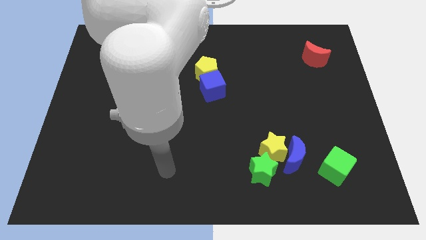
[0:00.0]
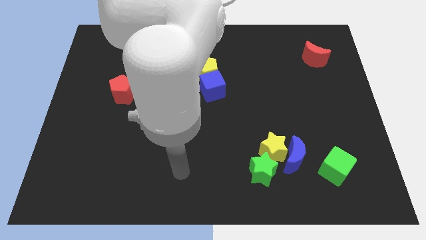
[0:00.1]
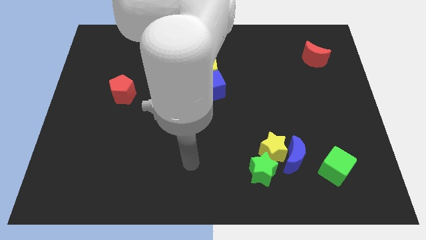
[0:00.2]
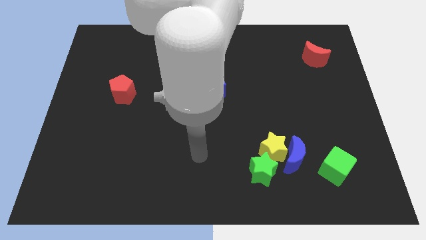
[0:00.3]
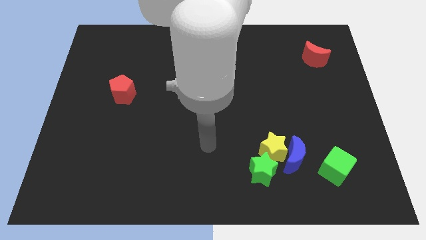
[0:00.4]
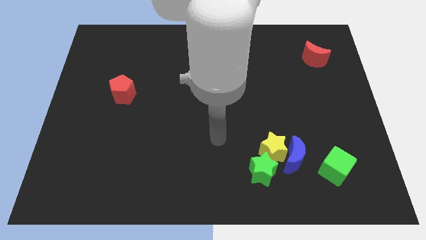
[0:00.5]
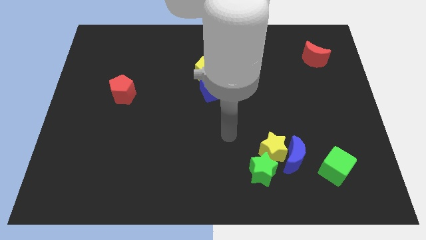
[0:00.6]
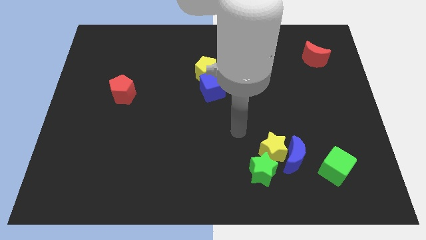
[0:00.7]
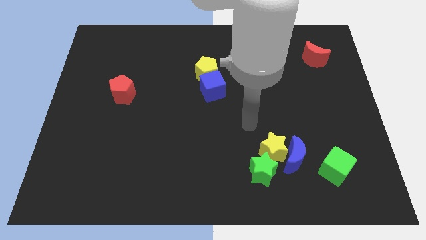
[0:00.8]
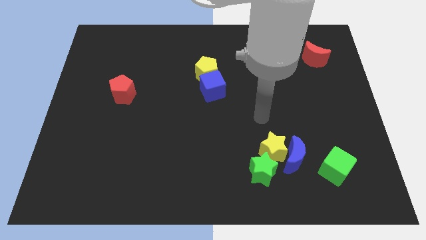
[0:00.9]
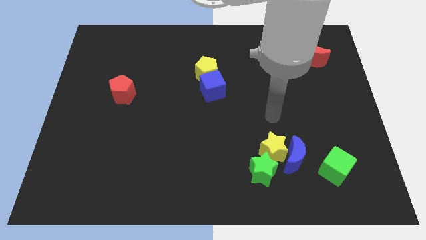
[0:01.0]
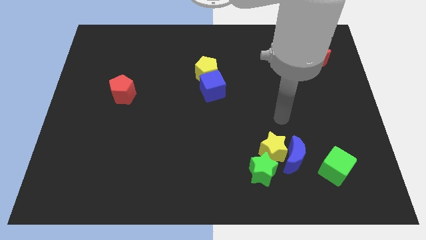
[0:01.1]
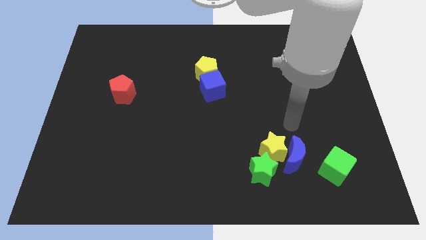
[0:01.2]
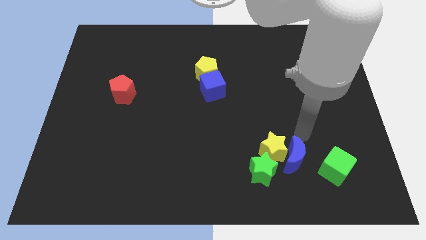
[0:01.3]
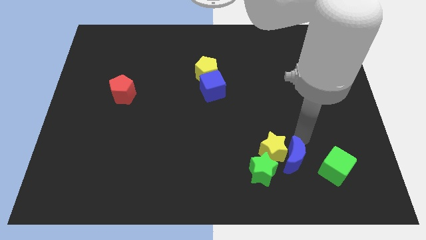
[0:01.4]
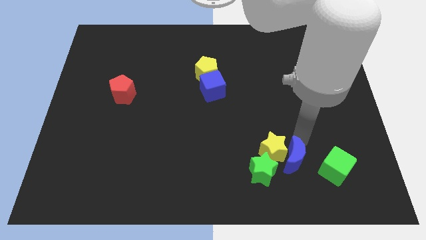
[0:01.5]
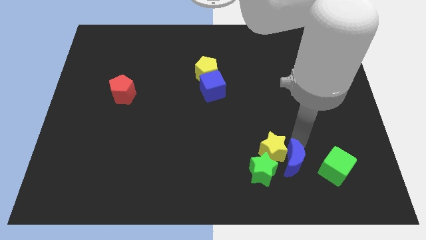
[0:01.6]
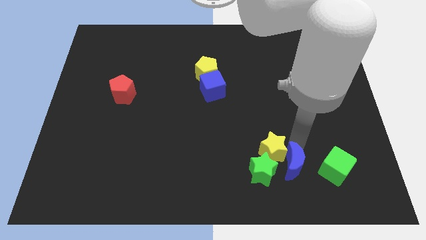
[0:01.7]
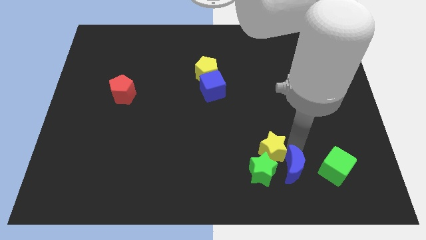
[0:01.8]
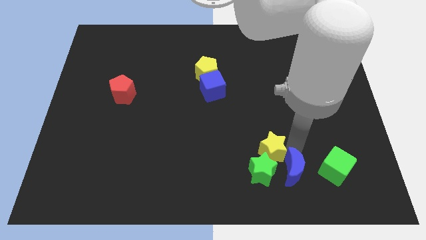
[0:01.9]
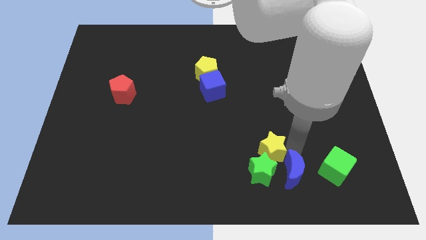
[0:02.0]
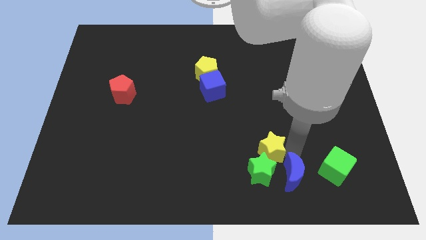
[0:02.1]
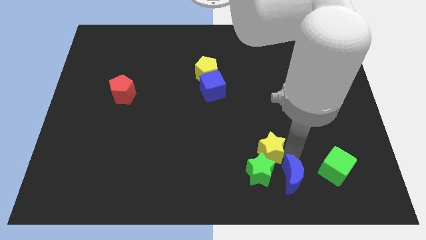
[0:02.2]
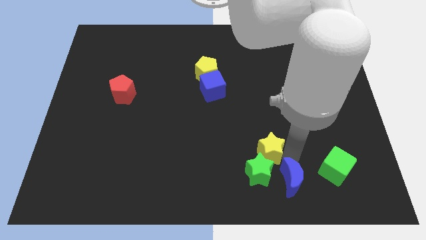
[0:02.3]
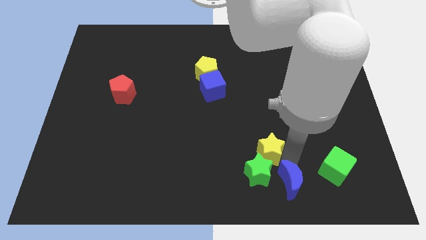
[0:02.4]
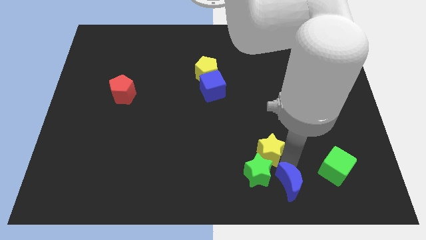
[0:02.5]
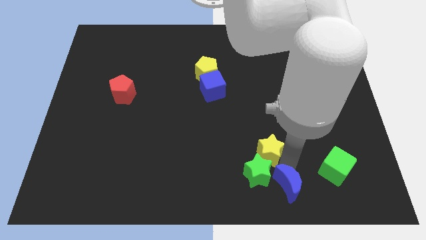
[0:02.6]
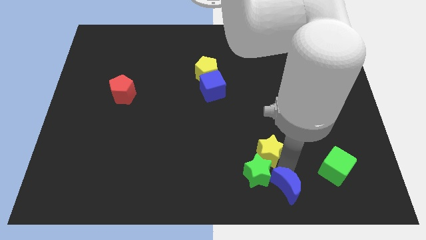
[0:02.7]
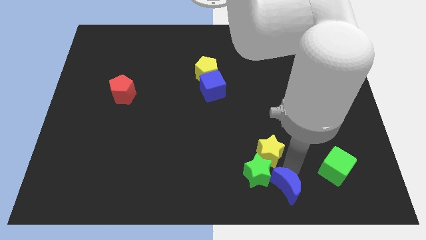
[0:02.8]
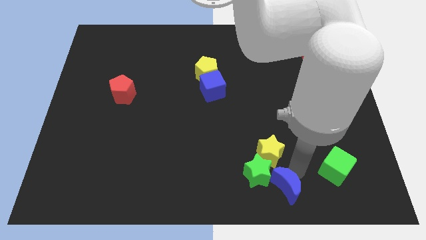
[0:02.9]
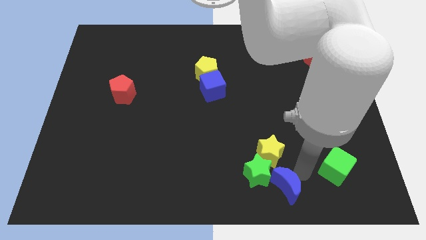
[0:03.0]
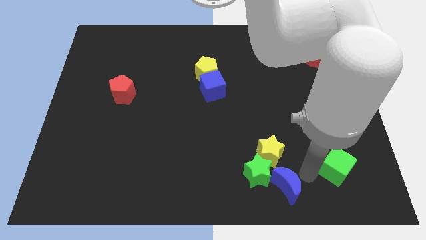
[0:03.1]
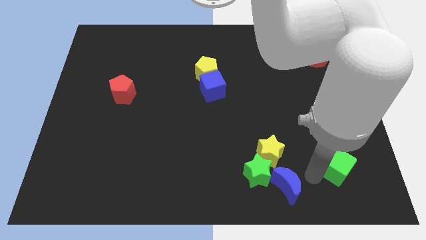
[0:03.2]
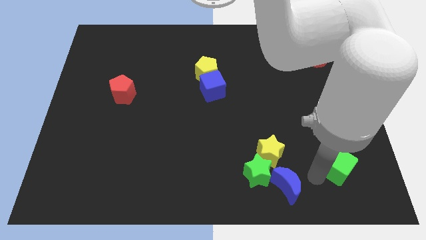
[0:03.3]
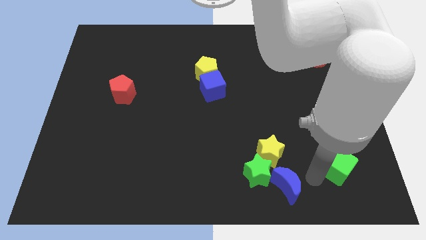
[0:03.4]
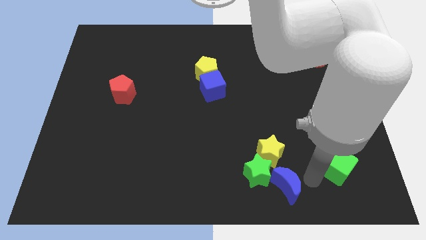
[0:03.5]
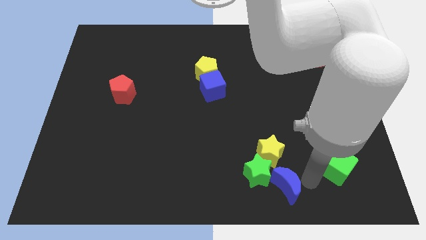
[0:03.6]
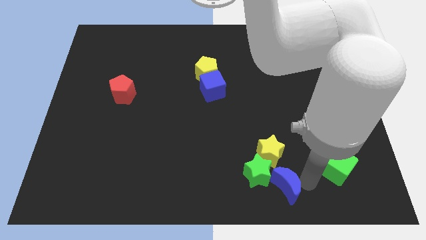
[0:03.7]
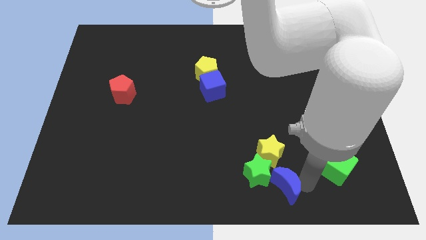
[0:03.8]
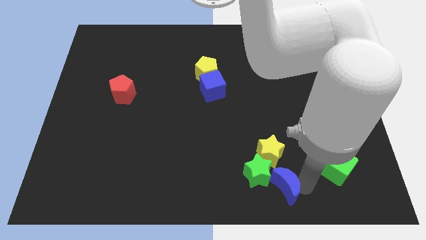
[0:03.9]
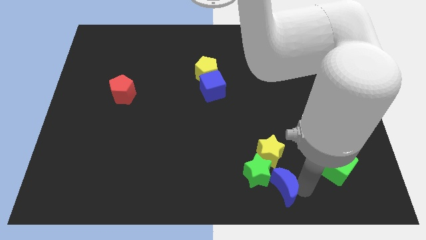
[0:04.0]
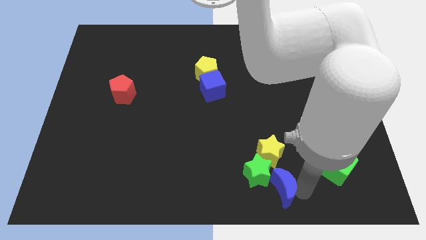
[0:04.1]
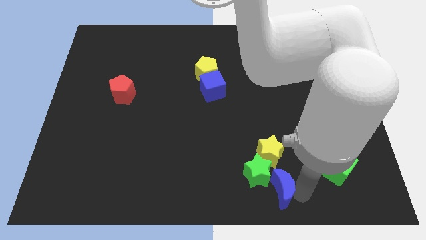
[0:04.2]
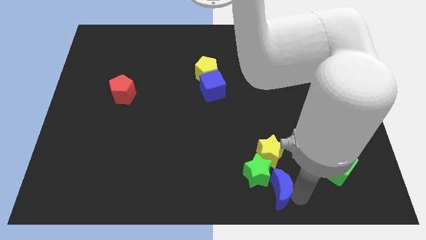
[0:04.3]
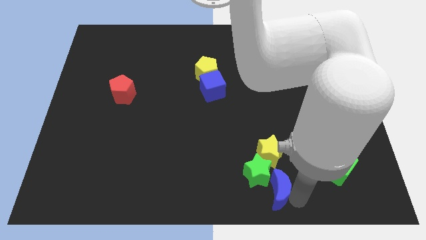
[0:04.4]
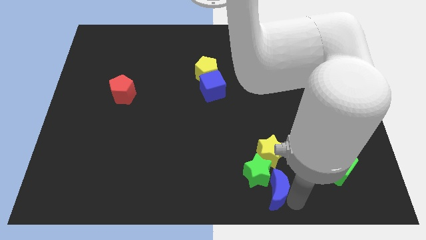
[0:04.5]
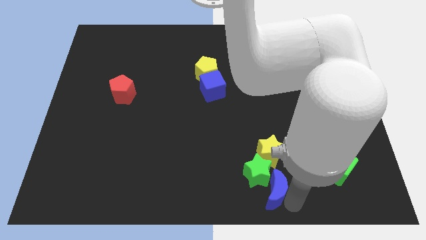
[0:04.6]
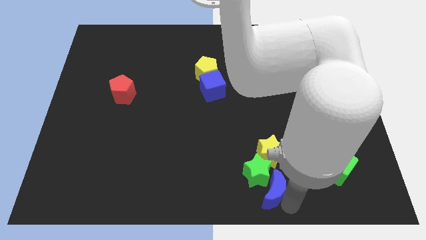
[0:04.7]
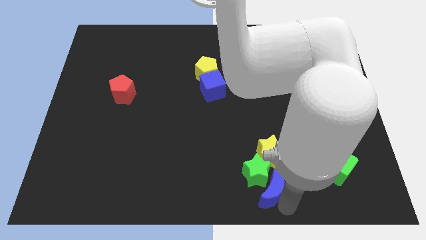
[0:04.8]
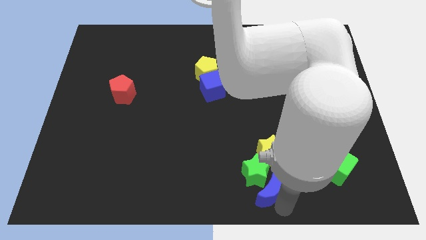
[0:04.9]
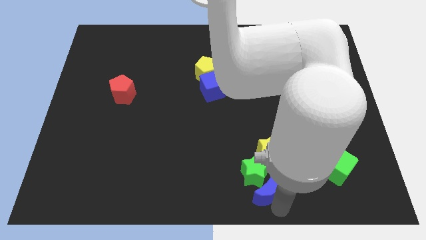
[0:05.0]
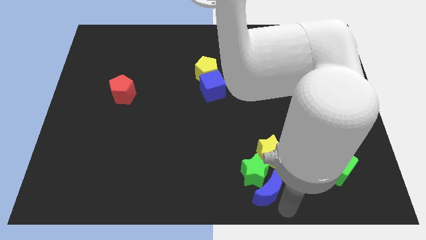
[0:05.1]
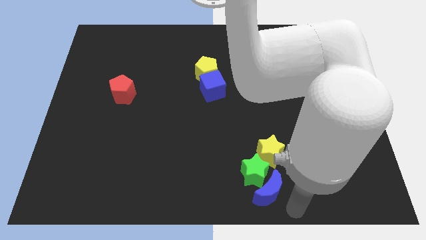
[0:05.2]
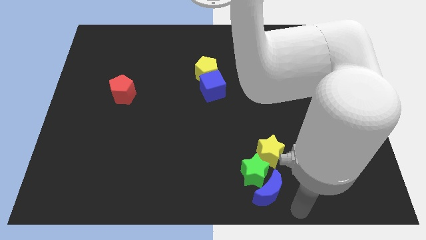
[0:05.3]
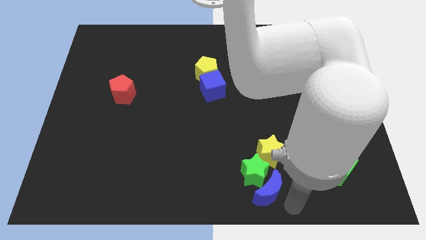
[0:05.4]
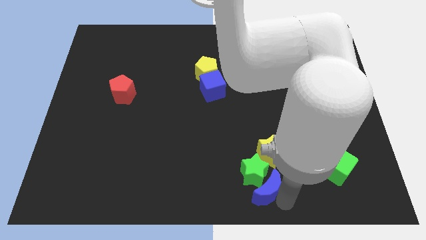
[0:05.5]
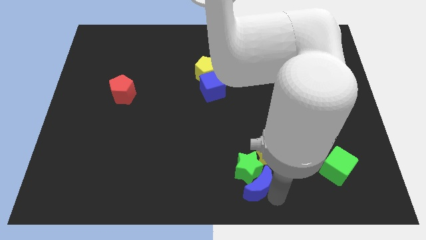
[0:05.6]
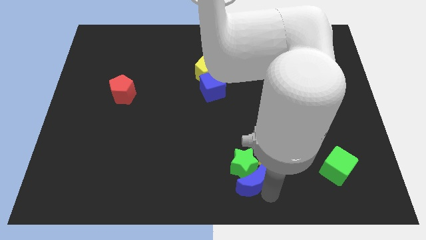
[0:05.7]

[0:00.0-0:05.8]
move the blue moon left a bit

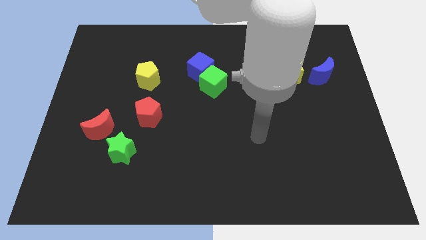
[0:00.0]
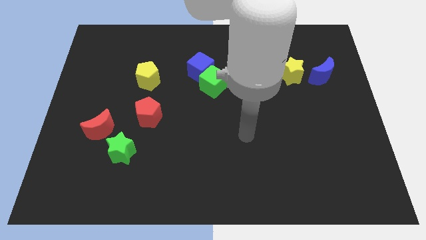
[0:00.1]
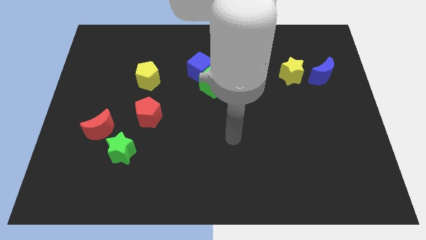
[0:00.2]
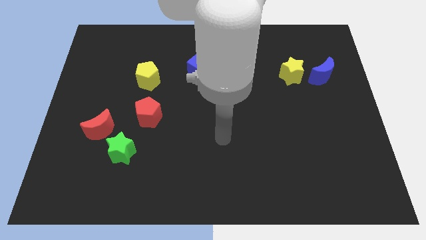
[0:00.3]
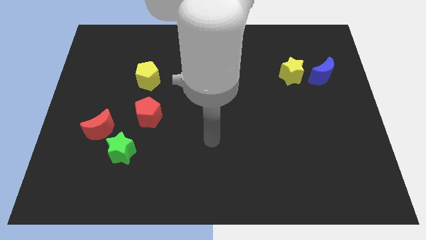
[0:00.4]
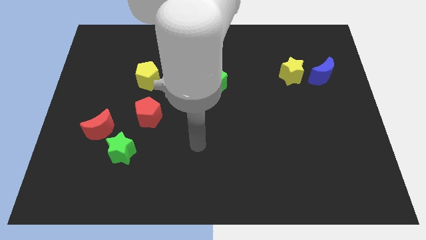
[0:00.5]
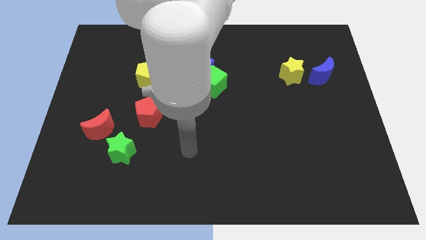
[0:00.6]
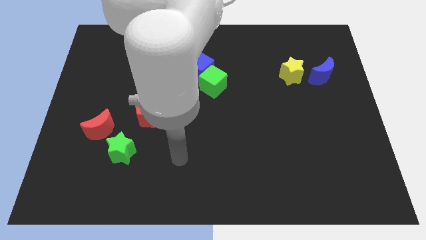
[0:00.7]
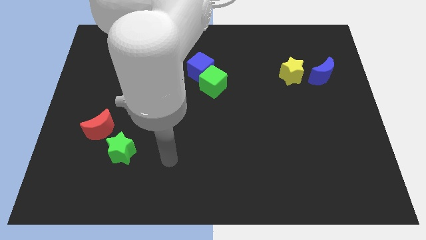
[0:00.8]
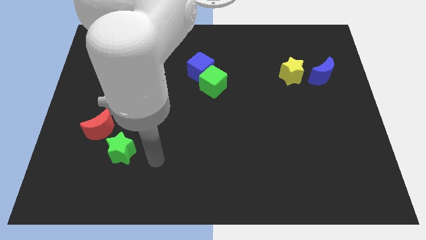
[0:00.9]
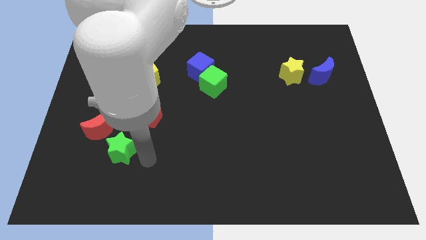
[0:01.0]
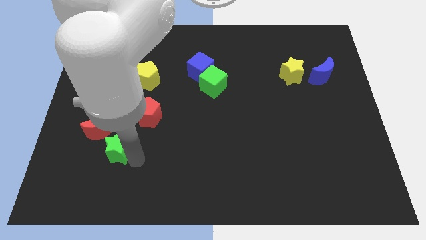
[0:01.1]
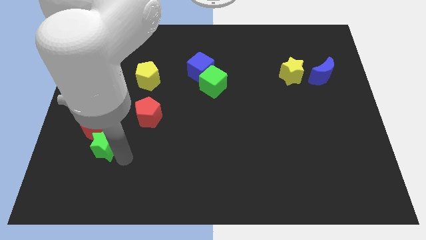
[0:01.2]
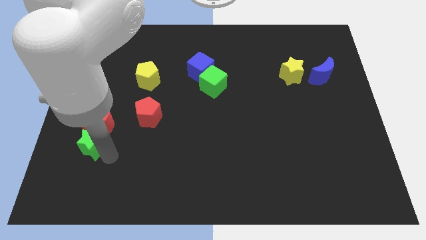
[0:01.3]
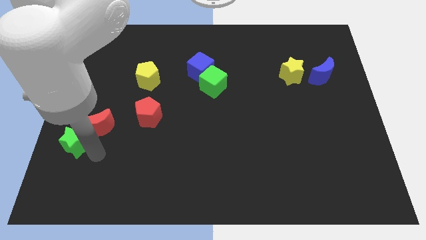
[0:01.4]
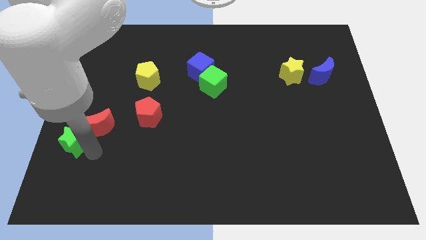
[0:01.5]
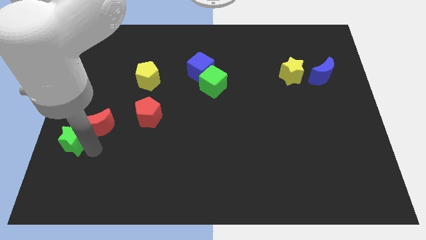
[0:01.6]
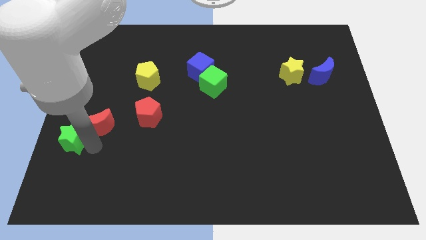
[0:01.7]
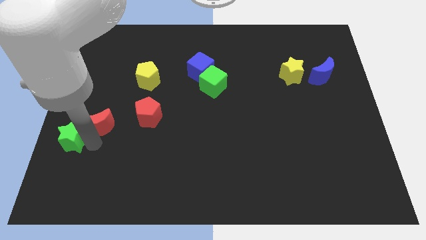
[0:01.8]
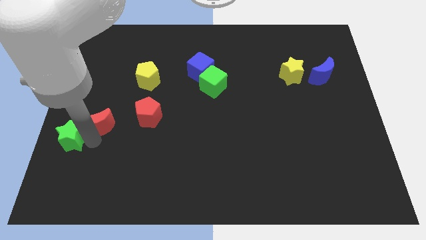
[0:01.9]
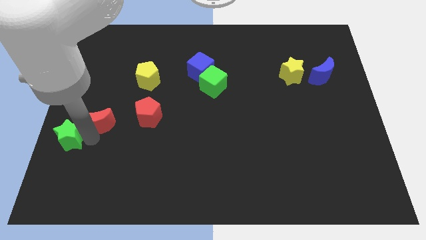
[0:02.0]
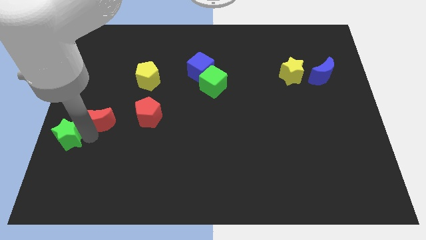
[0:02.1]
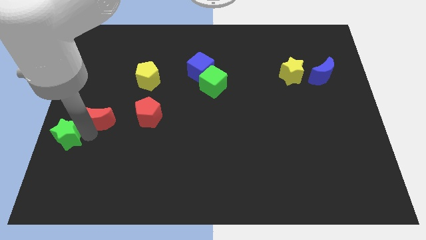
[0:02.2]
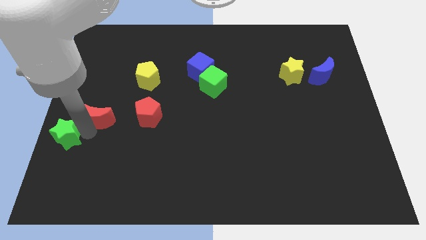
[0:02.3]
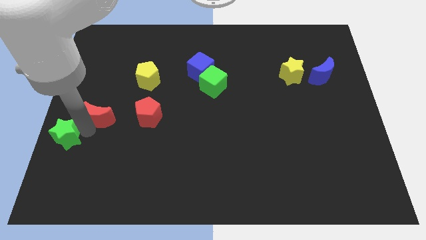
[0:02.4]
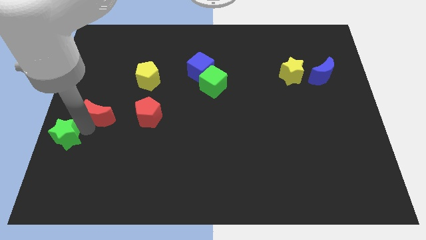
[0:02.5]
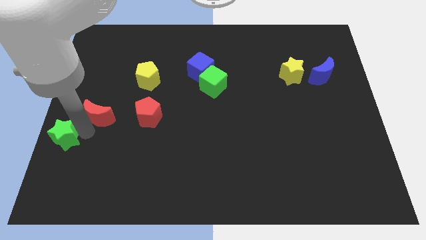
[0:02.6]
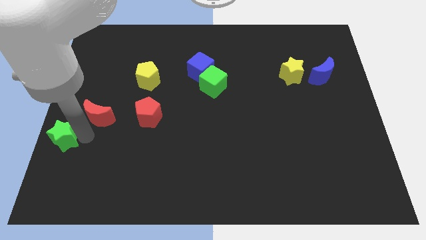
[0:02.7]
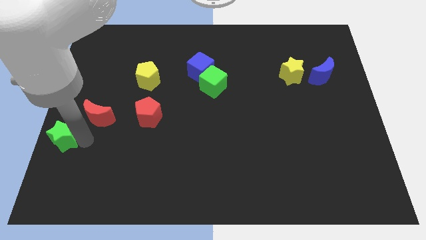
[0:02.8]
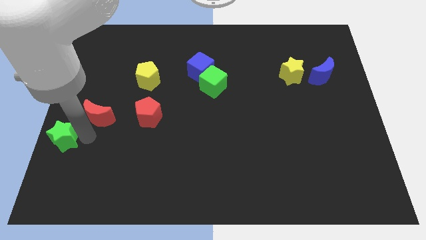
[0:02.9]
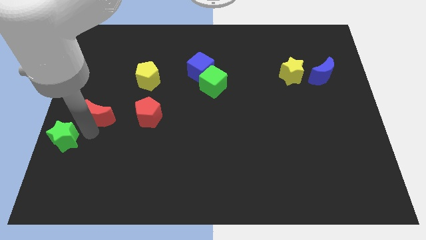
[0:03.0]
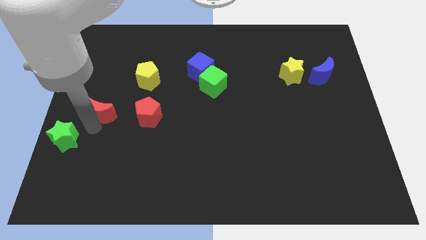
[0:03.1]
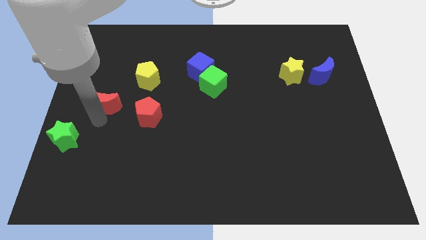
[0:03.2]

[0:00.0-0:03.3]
slightly move the red moon upwards
